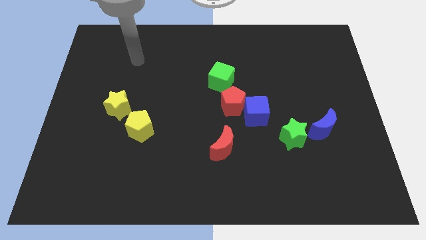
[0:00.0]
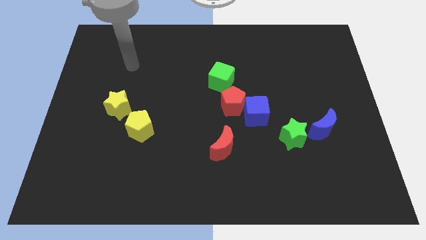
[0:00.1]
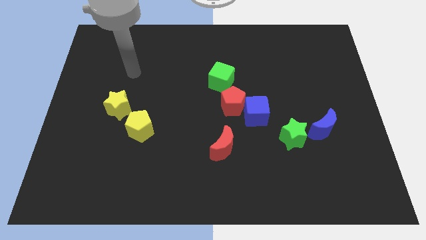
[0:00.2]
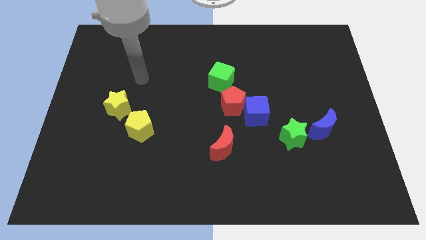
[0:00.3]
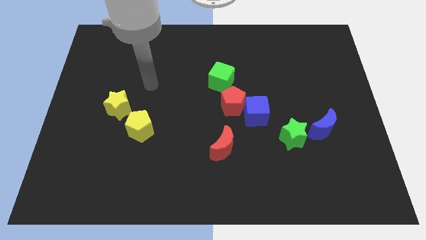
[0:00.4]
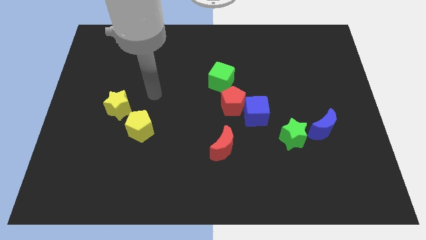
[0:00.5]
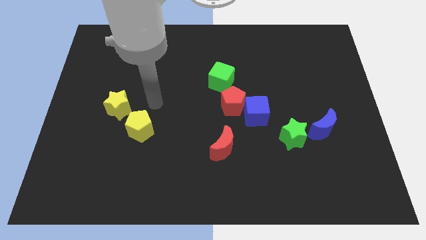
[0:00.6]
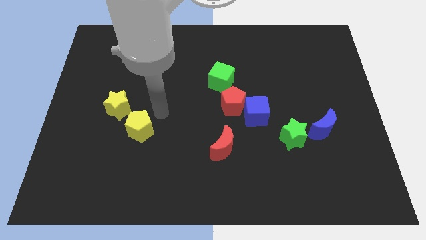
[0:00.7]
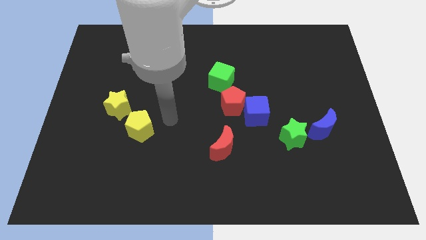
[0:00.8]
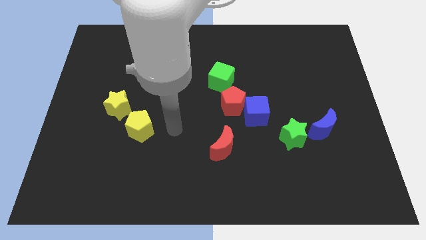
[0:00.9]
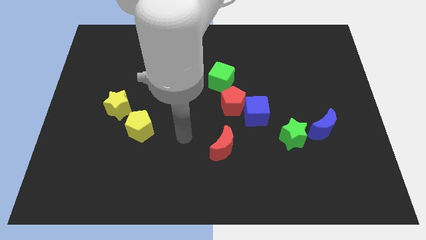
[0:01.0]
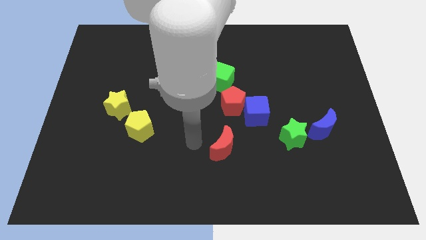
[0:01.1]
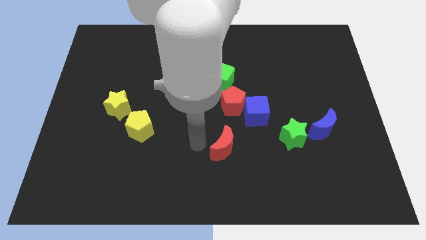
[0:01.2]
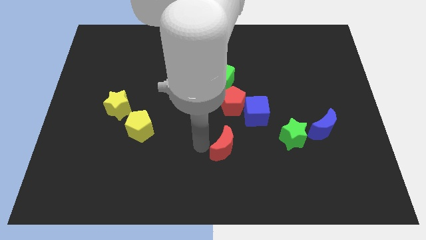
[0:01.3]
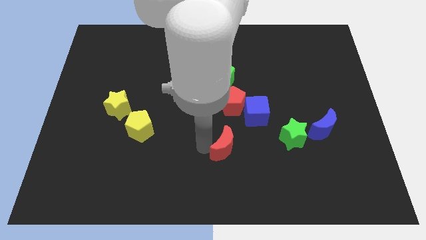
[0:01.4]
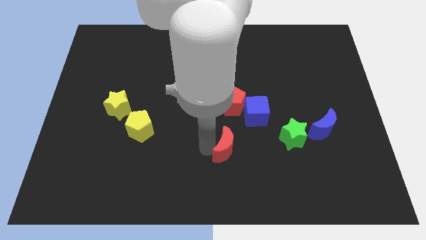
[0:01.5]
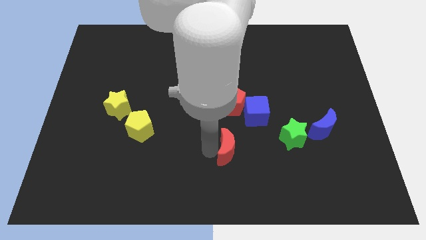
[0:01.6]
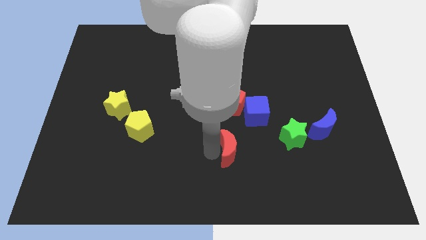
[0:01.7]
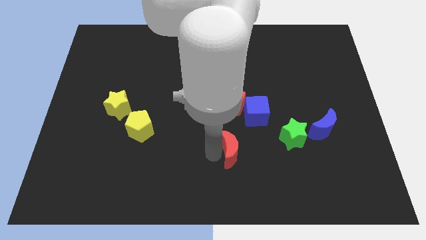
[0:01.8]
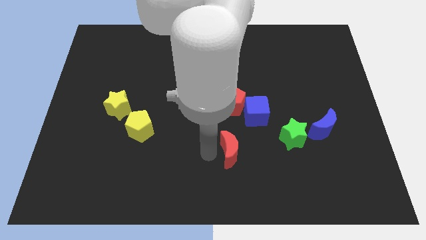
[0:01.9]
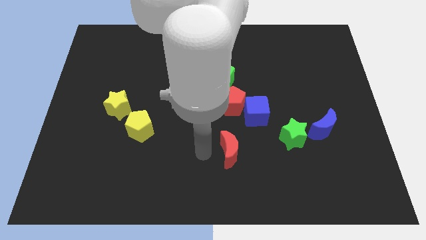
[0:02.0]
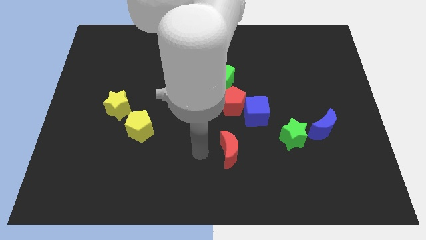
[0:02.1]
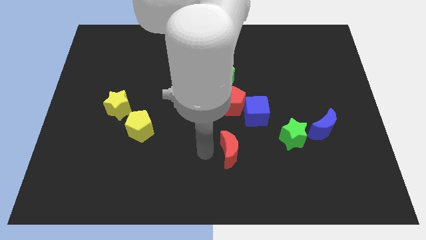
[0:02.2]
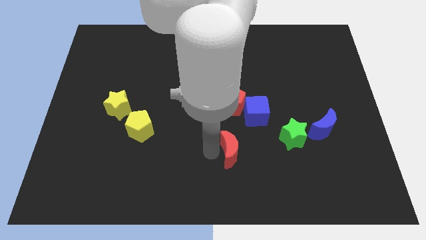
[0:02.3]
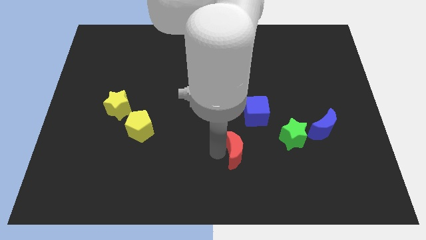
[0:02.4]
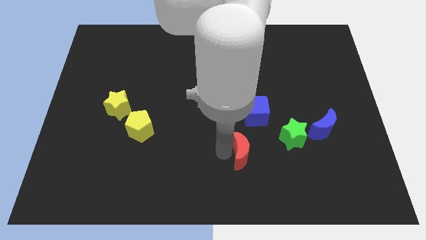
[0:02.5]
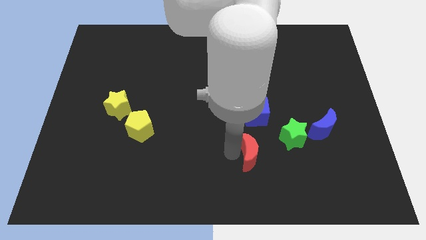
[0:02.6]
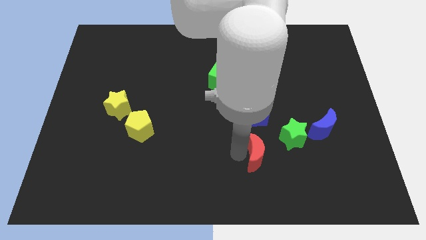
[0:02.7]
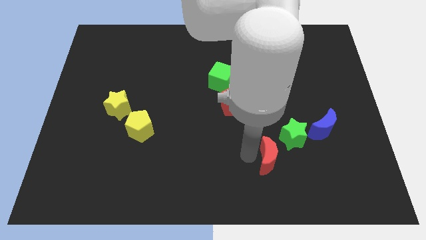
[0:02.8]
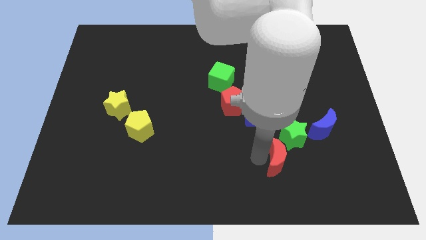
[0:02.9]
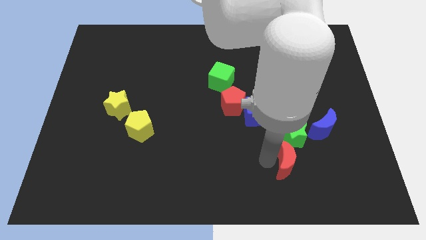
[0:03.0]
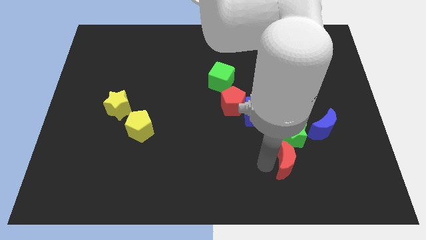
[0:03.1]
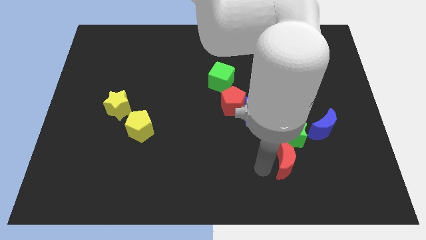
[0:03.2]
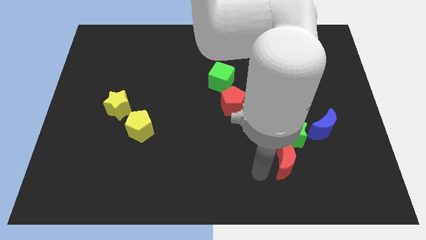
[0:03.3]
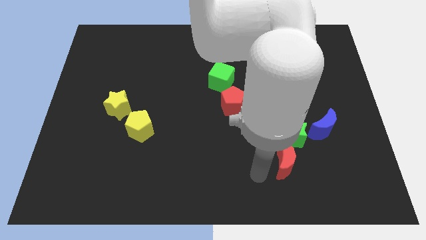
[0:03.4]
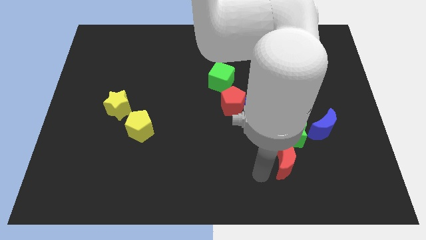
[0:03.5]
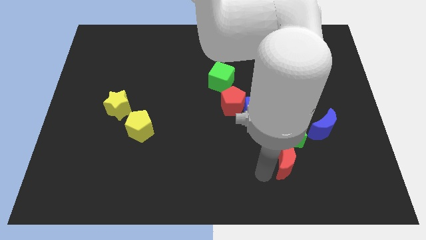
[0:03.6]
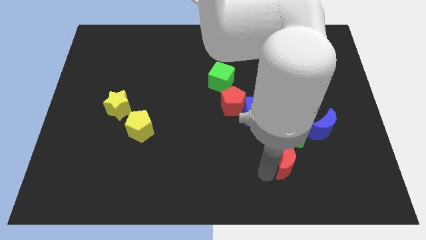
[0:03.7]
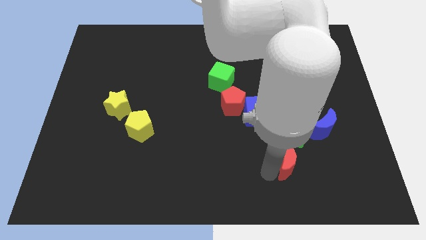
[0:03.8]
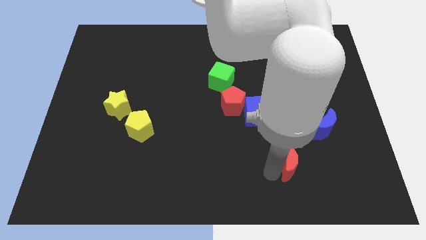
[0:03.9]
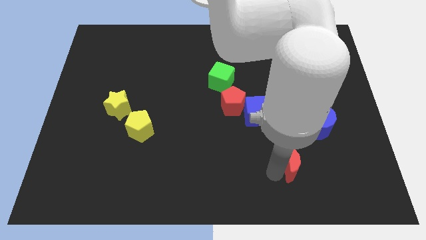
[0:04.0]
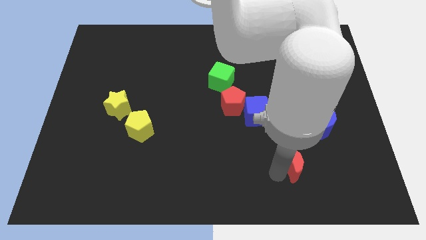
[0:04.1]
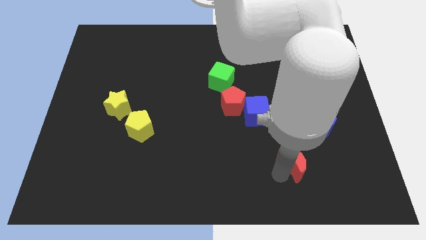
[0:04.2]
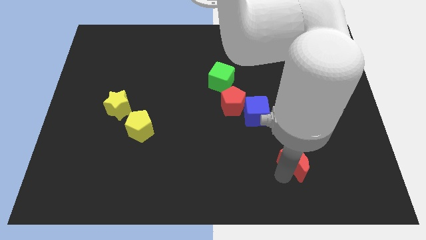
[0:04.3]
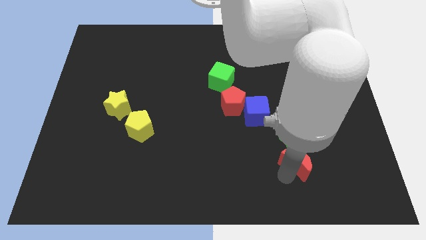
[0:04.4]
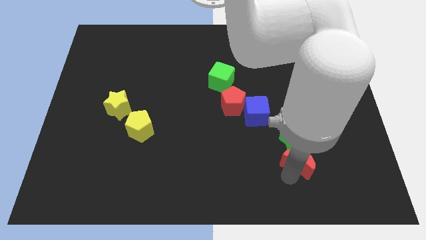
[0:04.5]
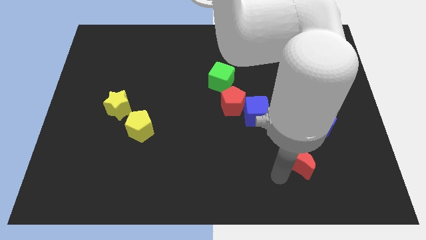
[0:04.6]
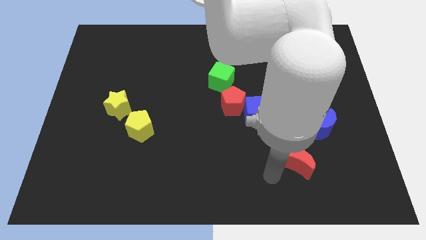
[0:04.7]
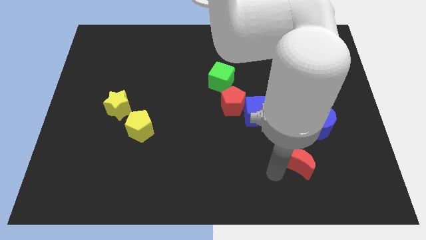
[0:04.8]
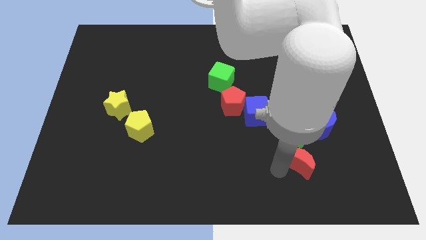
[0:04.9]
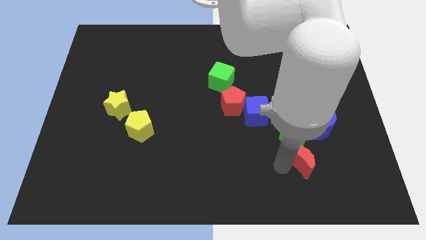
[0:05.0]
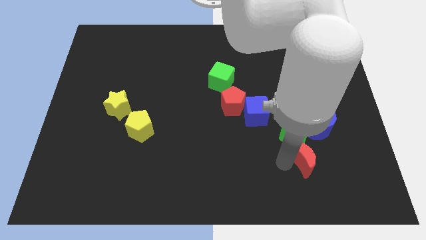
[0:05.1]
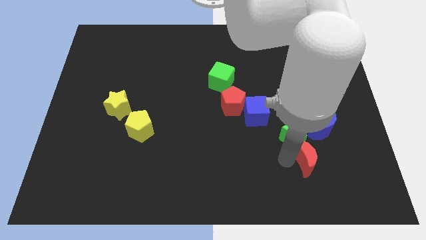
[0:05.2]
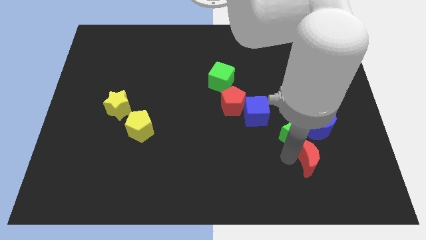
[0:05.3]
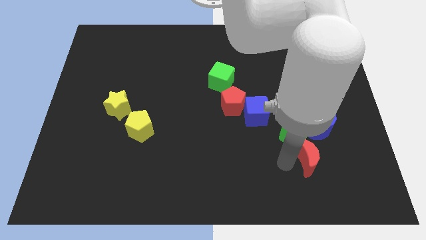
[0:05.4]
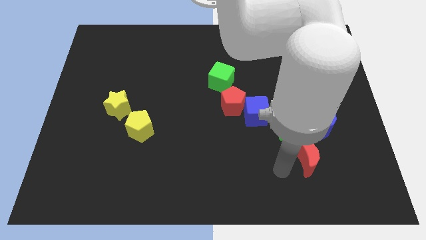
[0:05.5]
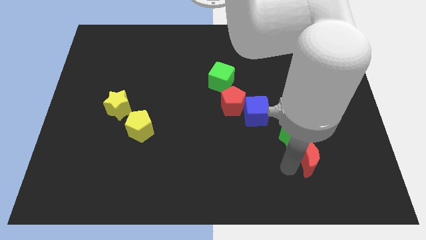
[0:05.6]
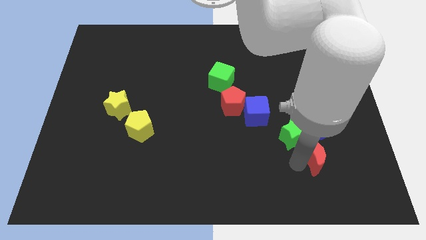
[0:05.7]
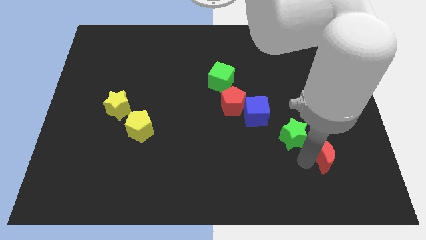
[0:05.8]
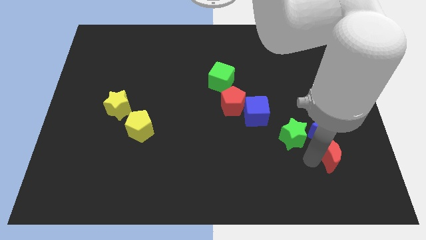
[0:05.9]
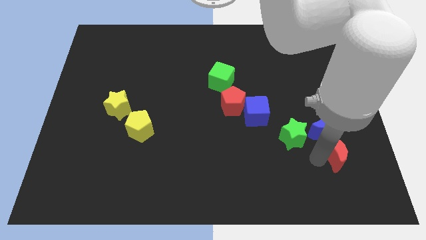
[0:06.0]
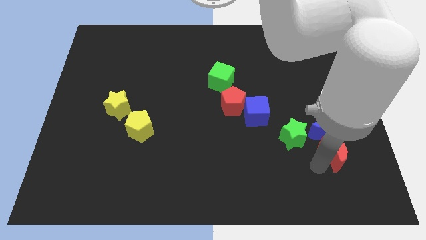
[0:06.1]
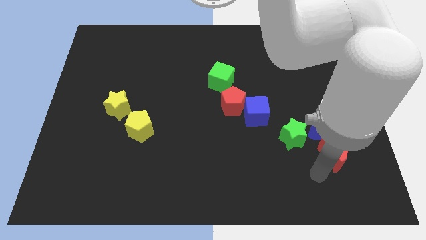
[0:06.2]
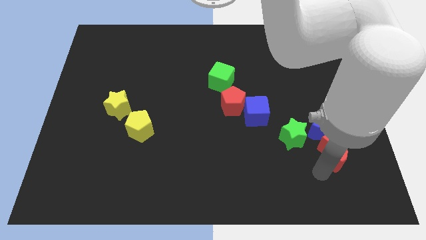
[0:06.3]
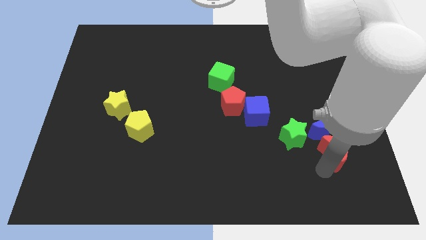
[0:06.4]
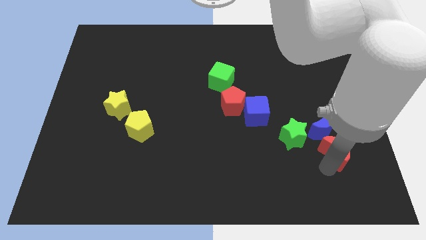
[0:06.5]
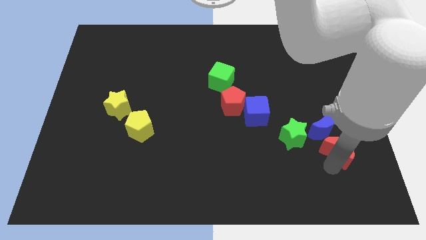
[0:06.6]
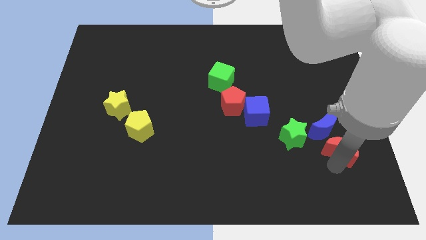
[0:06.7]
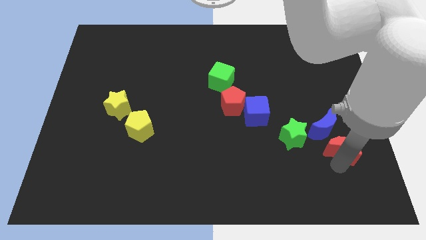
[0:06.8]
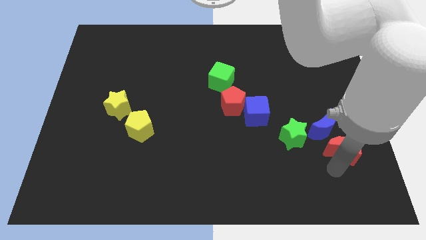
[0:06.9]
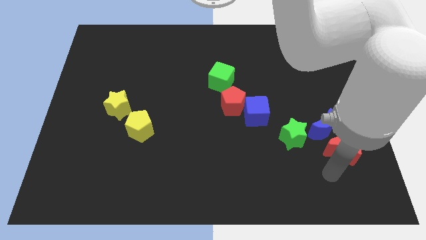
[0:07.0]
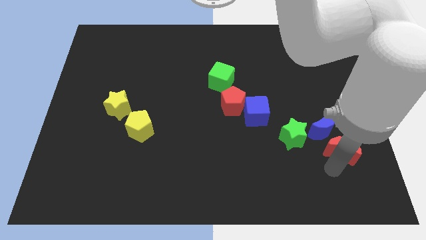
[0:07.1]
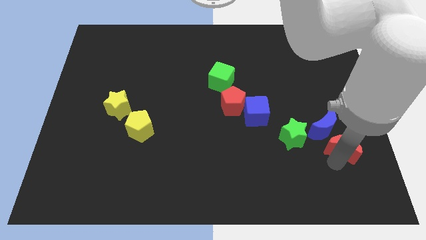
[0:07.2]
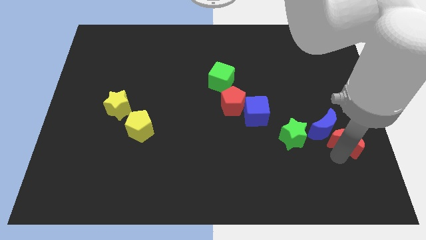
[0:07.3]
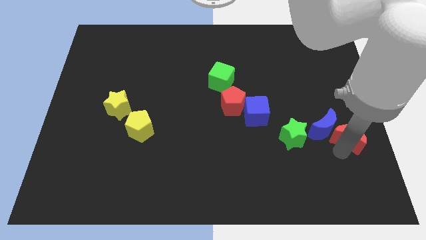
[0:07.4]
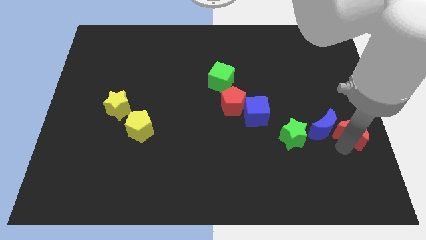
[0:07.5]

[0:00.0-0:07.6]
slide the red moon to the center right
